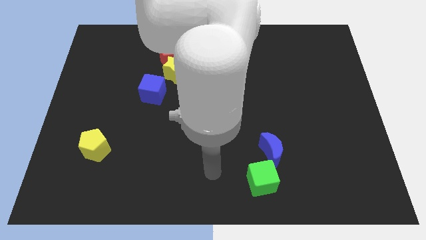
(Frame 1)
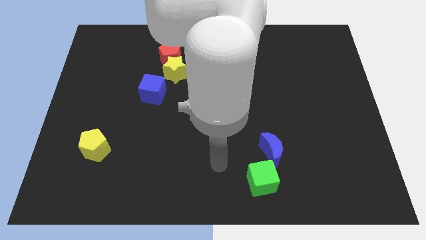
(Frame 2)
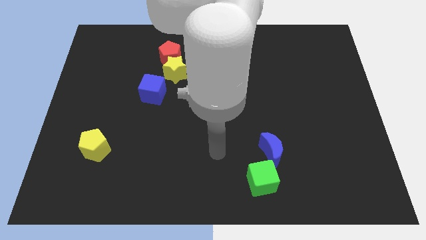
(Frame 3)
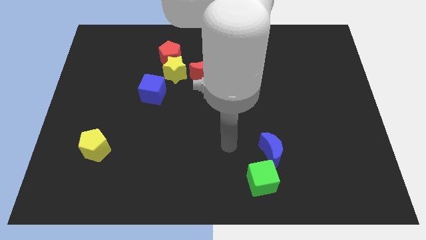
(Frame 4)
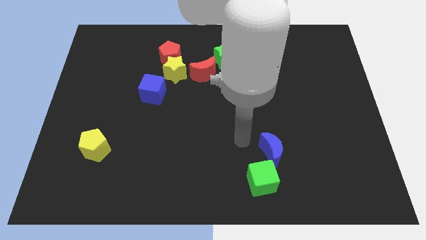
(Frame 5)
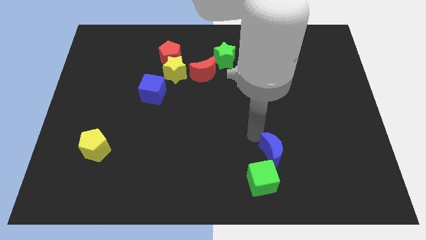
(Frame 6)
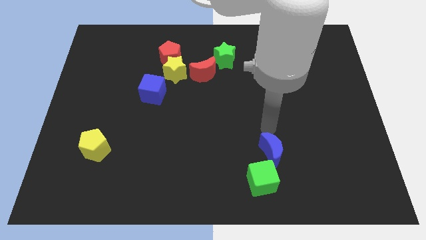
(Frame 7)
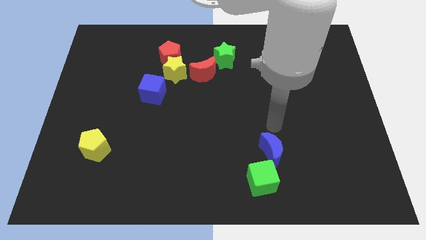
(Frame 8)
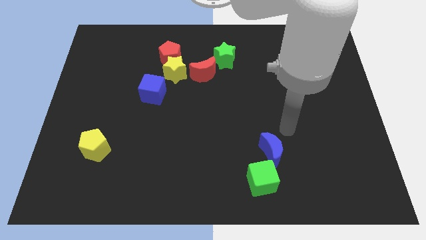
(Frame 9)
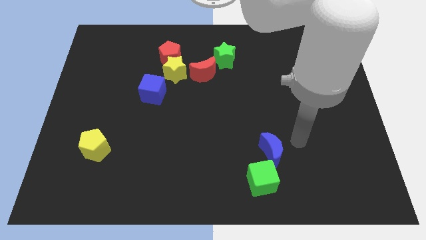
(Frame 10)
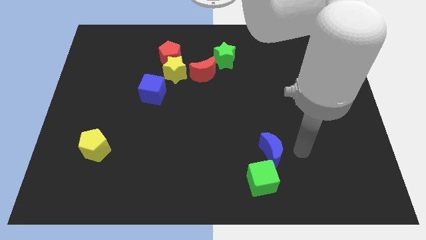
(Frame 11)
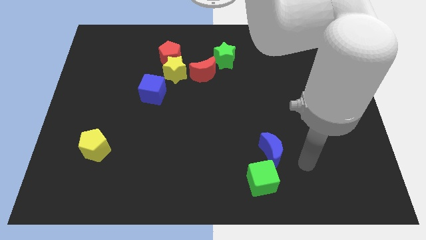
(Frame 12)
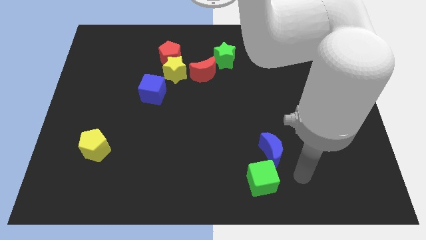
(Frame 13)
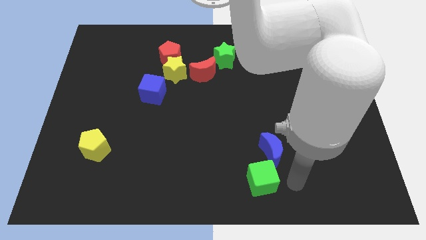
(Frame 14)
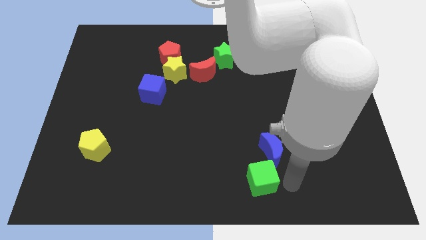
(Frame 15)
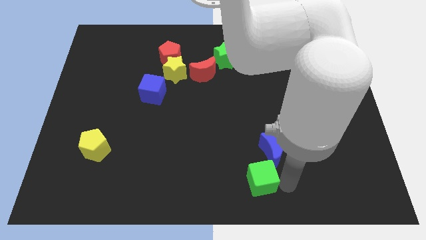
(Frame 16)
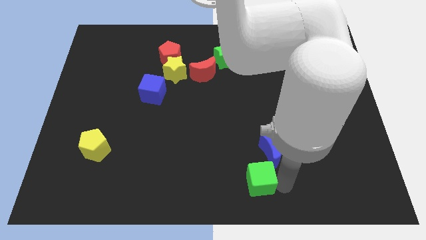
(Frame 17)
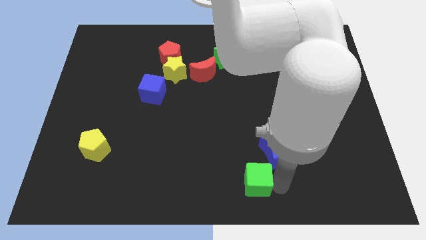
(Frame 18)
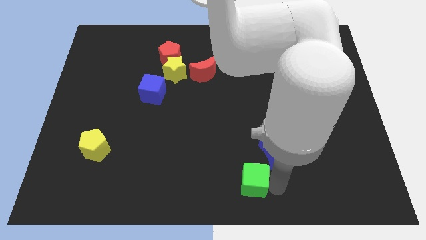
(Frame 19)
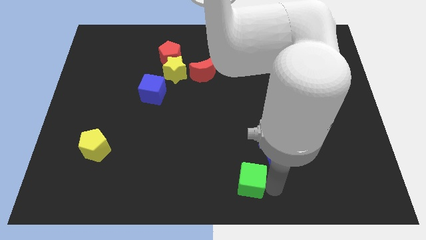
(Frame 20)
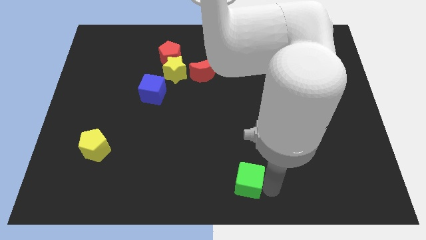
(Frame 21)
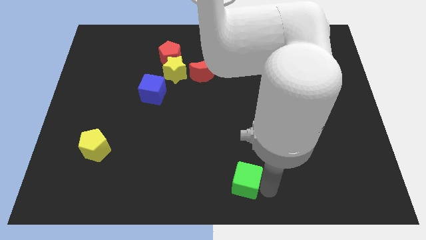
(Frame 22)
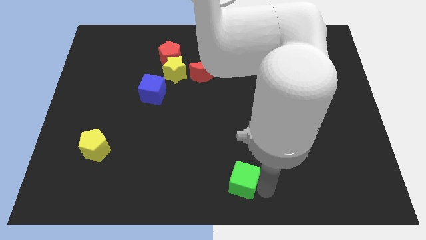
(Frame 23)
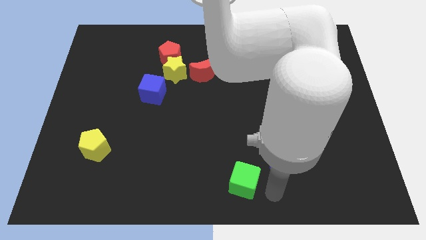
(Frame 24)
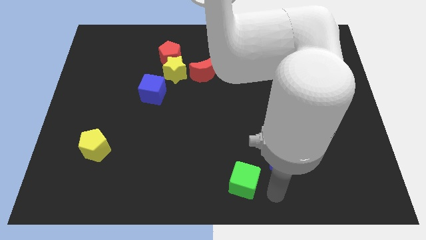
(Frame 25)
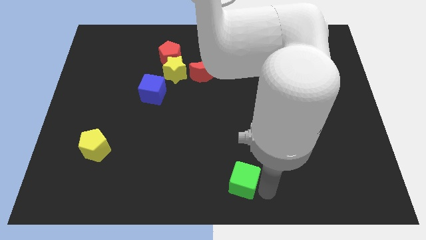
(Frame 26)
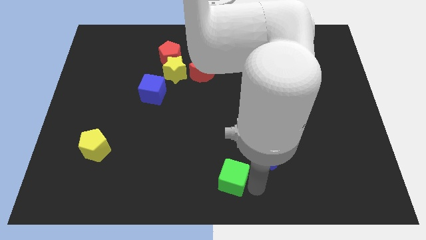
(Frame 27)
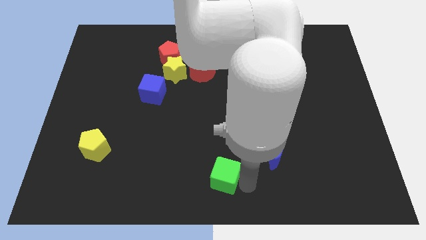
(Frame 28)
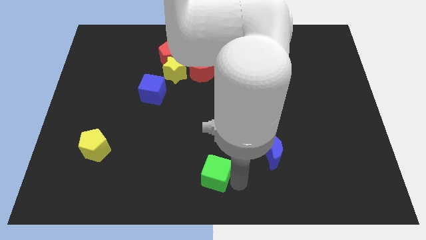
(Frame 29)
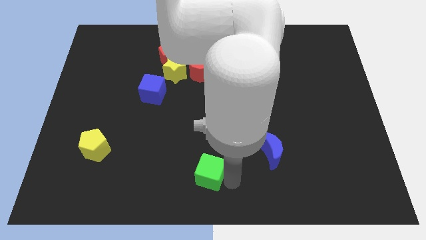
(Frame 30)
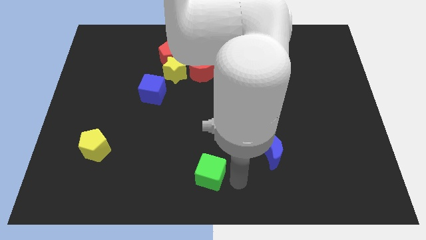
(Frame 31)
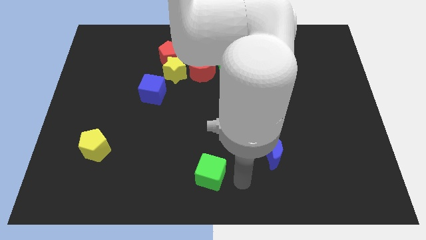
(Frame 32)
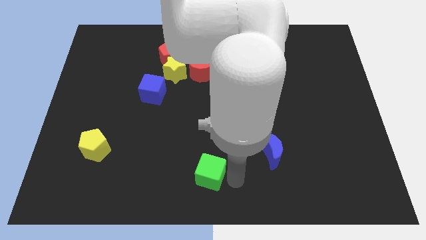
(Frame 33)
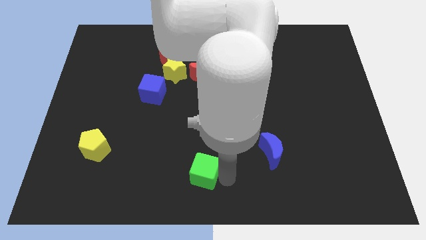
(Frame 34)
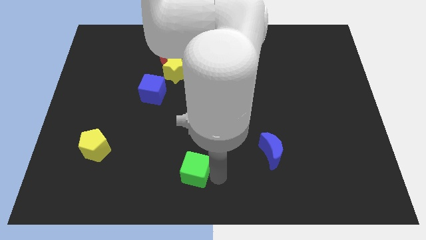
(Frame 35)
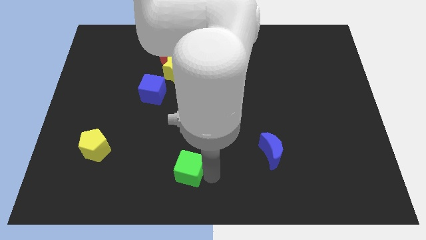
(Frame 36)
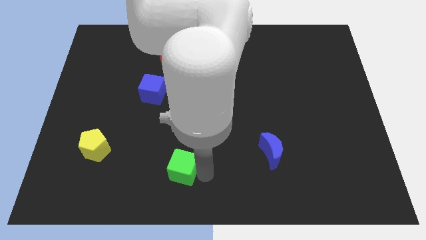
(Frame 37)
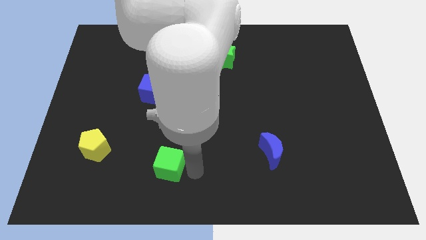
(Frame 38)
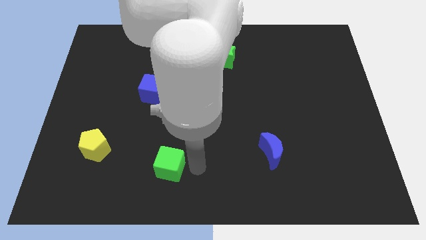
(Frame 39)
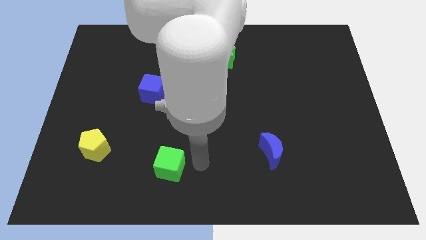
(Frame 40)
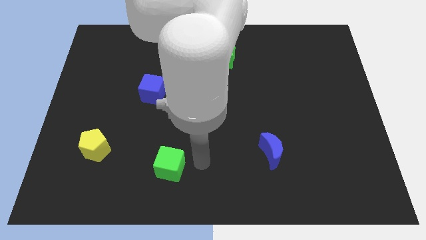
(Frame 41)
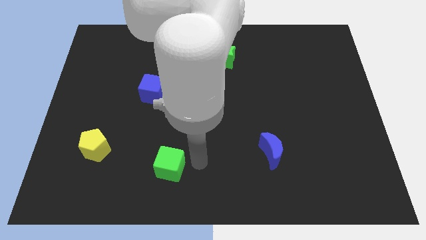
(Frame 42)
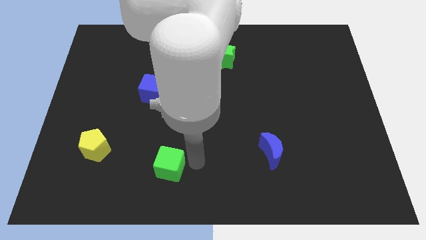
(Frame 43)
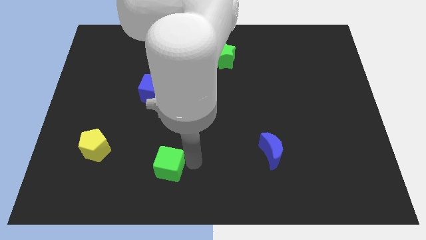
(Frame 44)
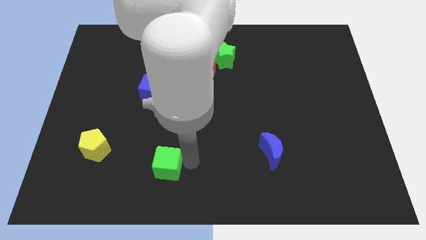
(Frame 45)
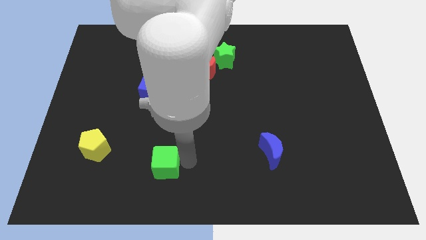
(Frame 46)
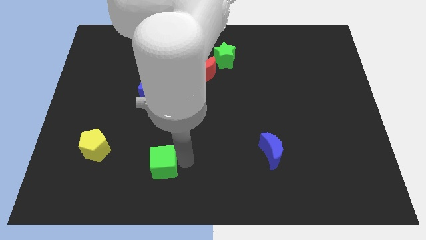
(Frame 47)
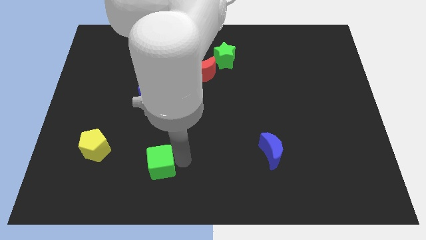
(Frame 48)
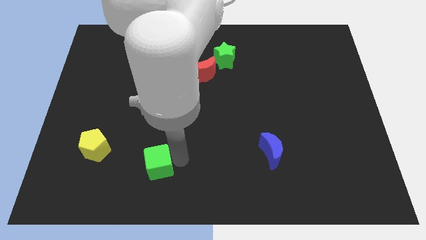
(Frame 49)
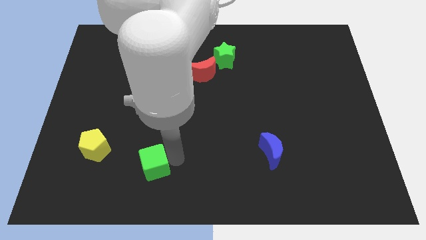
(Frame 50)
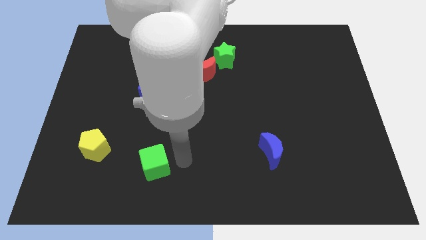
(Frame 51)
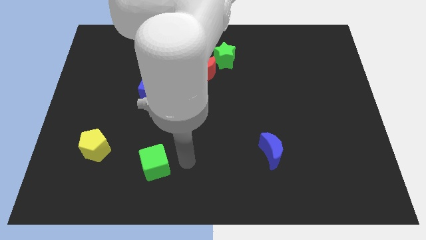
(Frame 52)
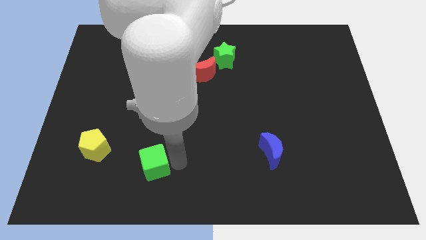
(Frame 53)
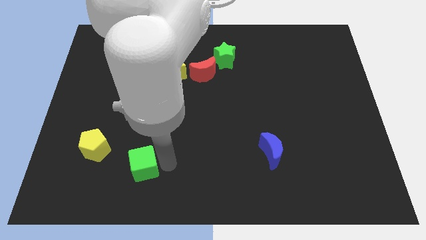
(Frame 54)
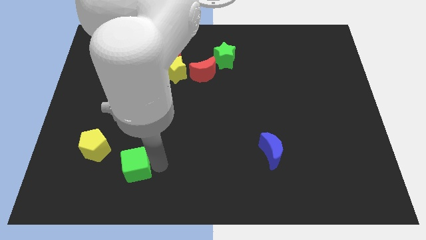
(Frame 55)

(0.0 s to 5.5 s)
push the green cube diagonally down and to the right of the yellow pentagon

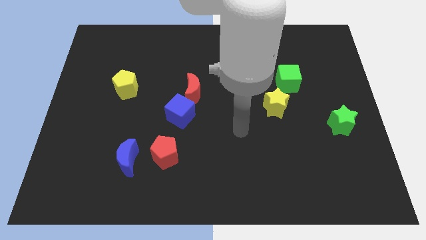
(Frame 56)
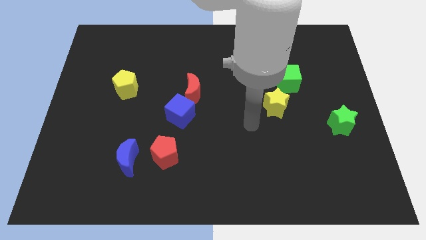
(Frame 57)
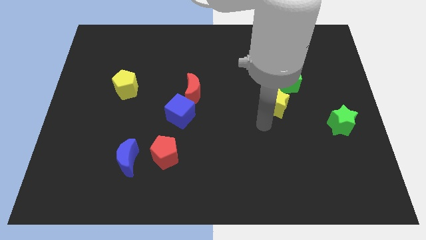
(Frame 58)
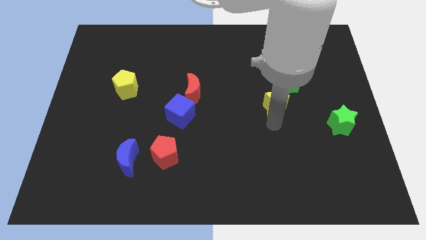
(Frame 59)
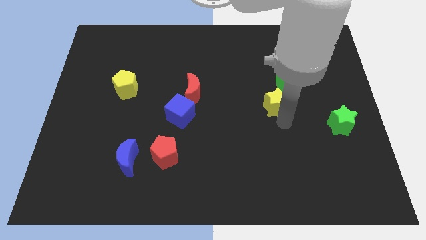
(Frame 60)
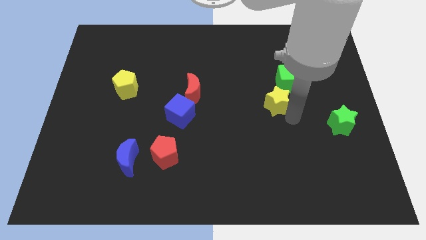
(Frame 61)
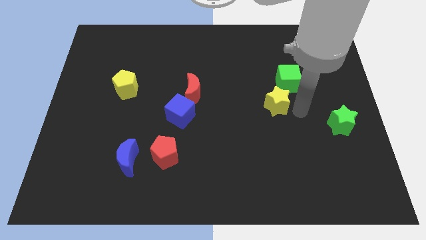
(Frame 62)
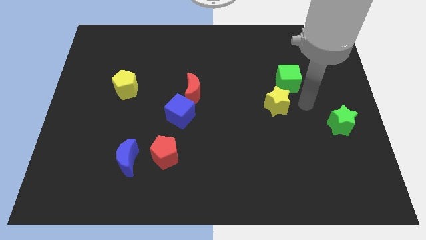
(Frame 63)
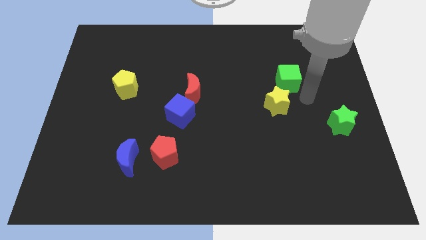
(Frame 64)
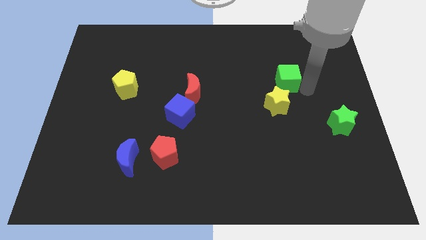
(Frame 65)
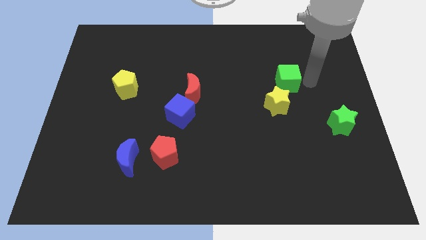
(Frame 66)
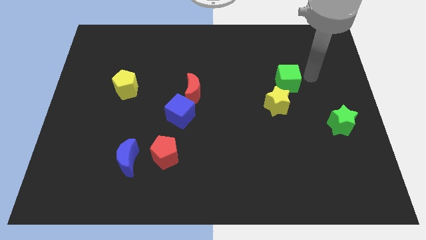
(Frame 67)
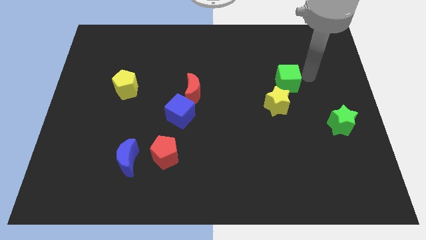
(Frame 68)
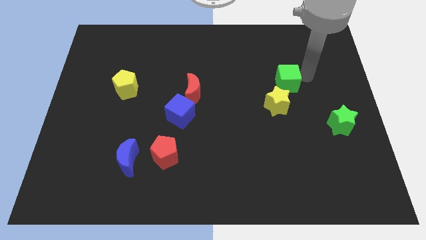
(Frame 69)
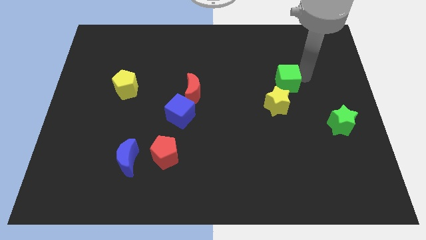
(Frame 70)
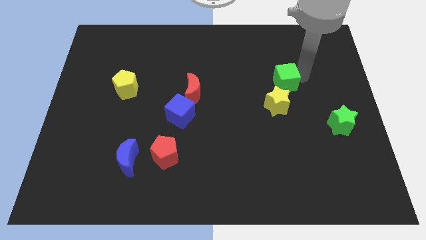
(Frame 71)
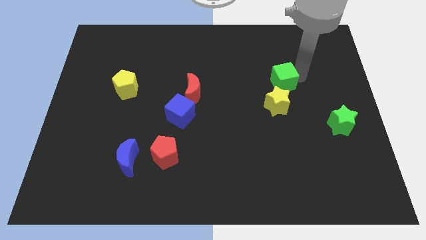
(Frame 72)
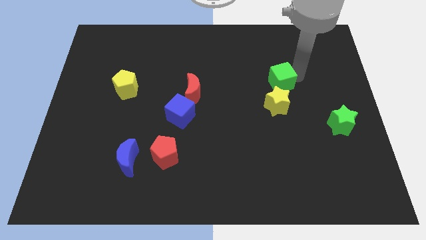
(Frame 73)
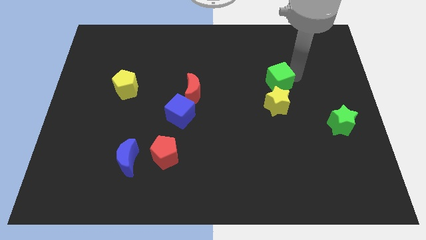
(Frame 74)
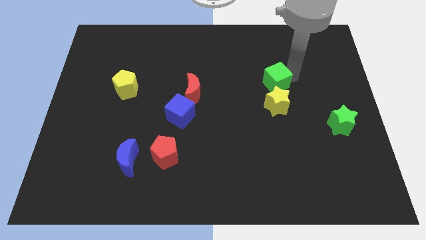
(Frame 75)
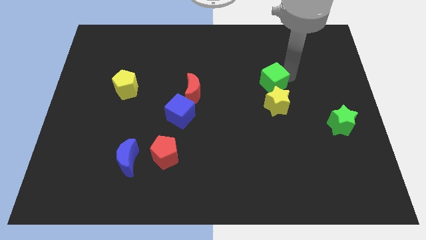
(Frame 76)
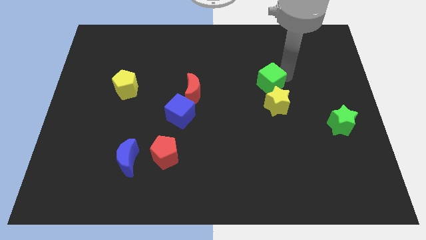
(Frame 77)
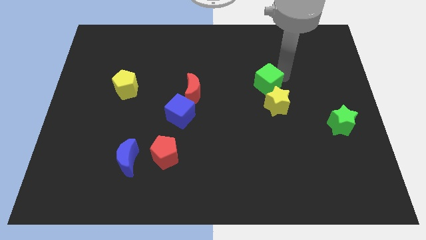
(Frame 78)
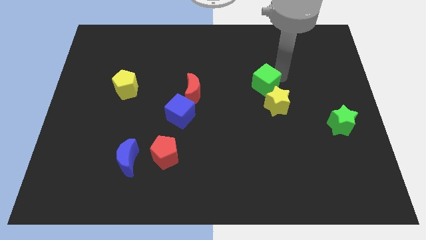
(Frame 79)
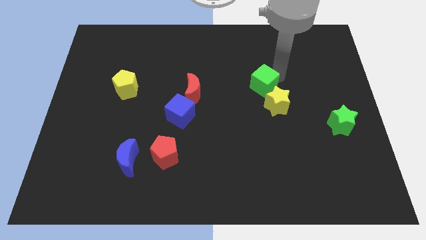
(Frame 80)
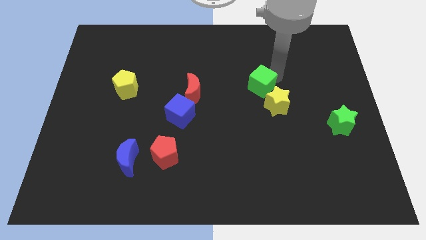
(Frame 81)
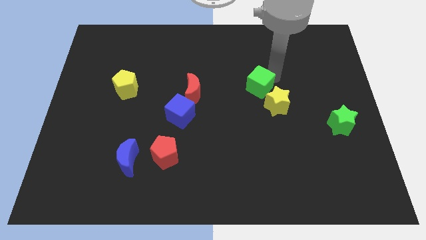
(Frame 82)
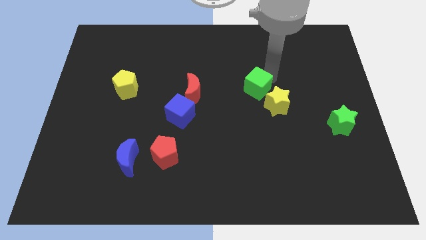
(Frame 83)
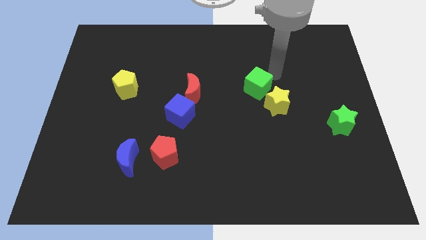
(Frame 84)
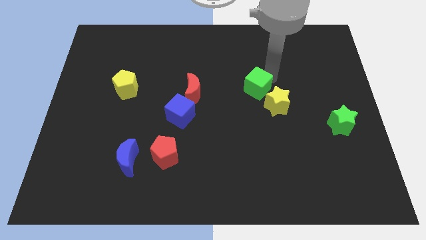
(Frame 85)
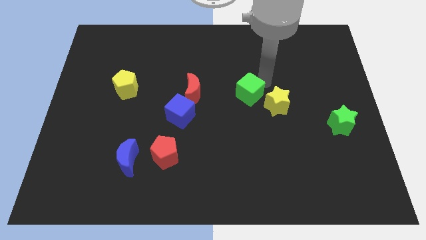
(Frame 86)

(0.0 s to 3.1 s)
move the green cube just left of the yellow star
